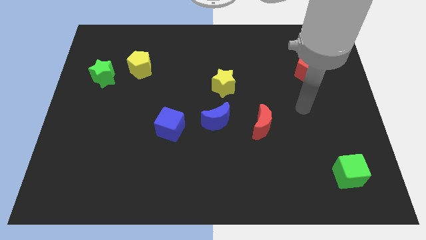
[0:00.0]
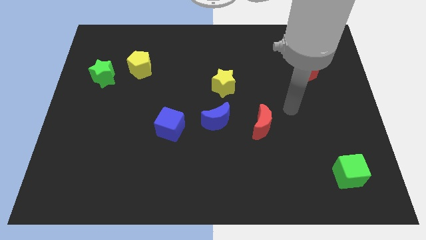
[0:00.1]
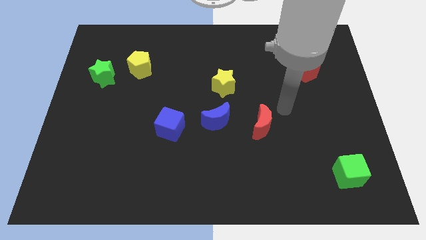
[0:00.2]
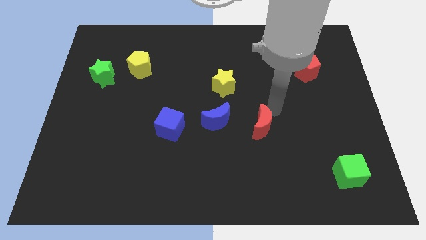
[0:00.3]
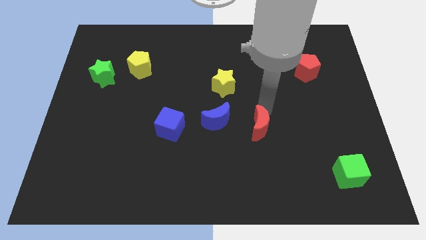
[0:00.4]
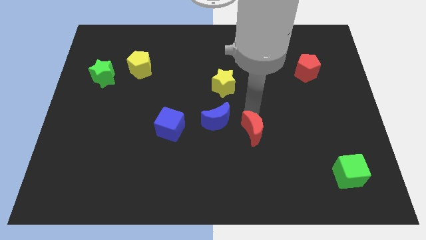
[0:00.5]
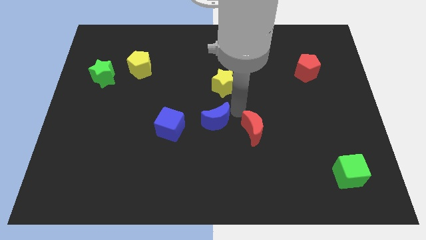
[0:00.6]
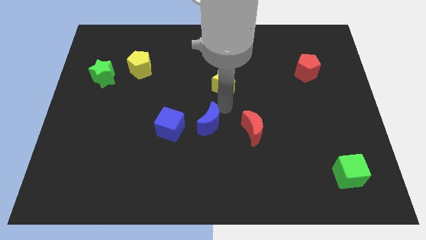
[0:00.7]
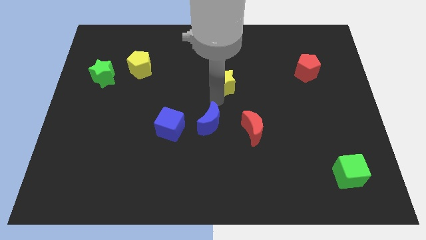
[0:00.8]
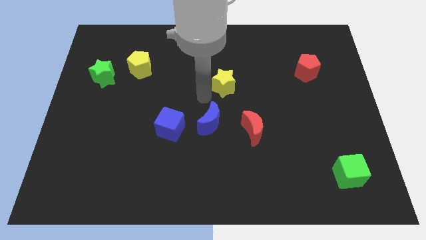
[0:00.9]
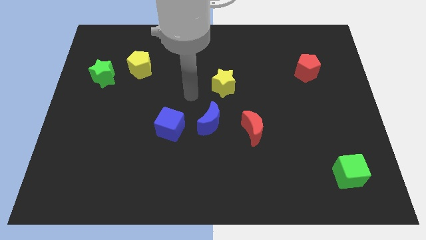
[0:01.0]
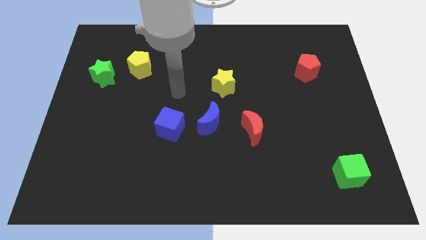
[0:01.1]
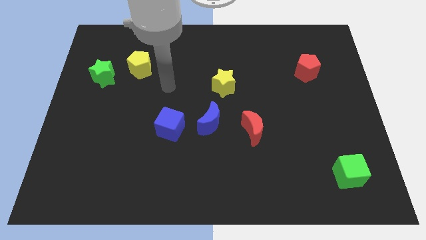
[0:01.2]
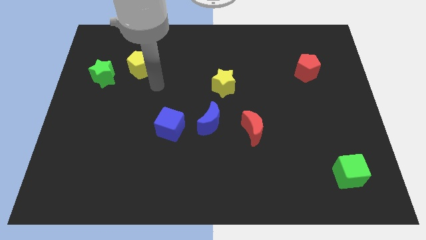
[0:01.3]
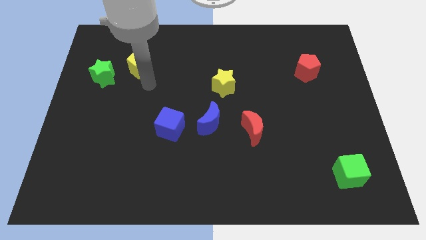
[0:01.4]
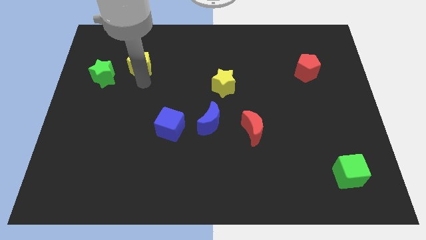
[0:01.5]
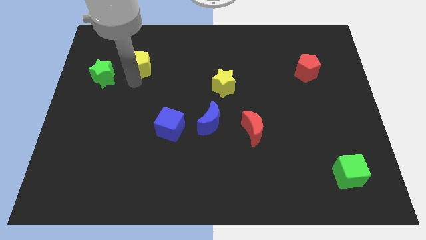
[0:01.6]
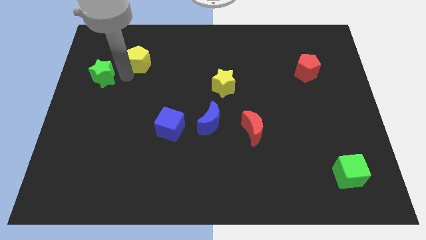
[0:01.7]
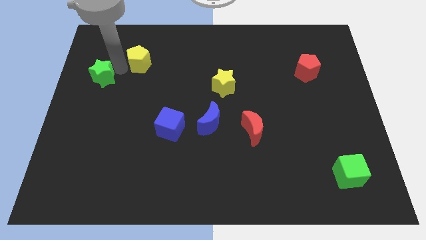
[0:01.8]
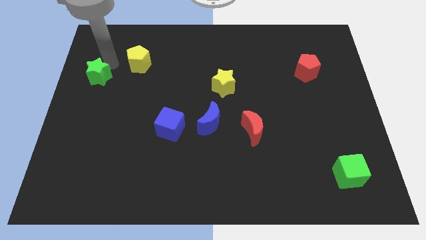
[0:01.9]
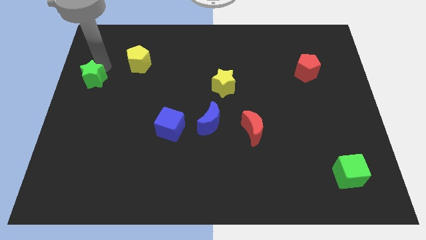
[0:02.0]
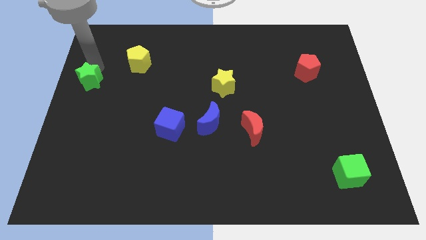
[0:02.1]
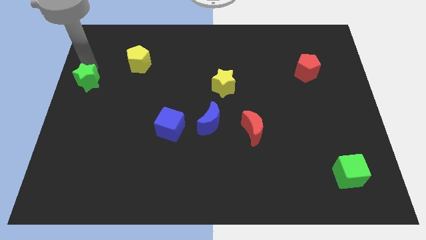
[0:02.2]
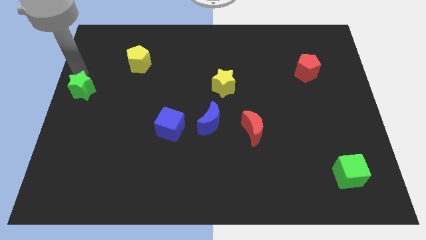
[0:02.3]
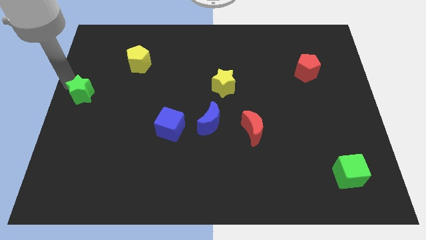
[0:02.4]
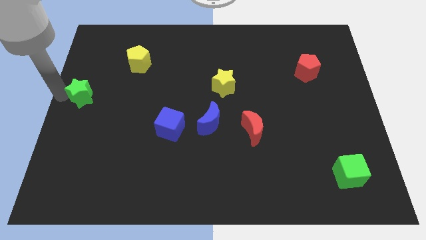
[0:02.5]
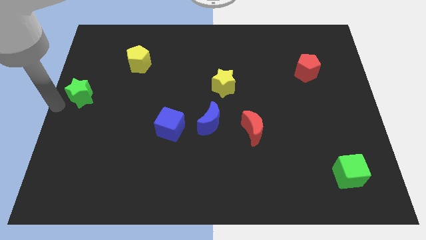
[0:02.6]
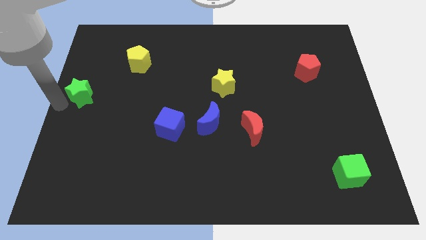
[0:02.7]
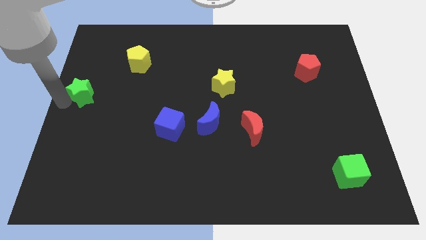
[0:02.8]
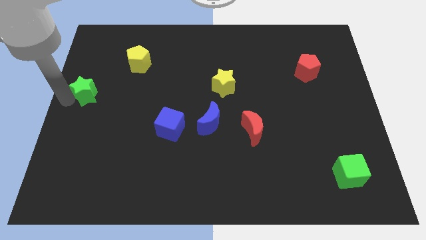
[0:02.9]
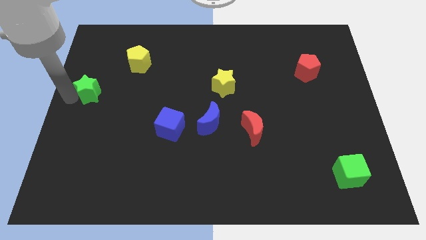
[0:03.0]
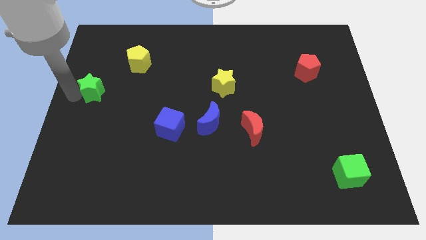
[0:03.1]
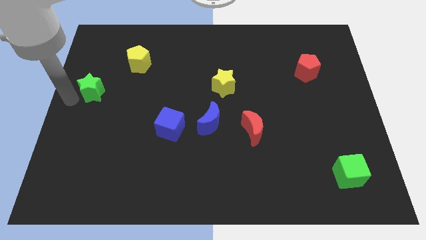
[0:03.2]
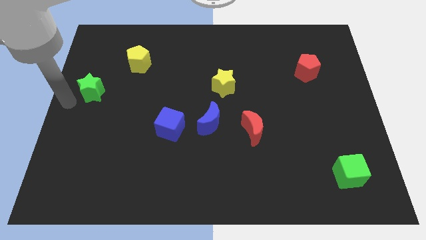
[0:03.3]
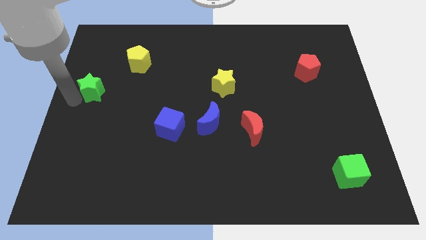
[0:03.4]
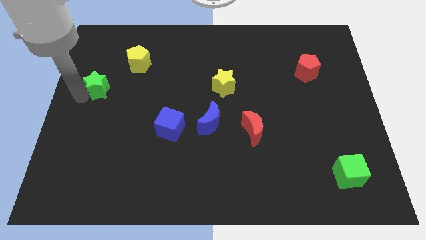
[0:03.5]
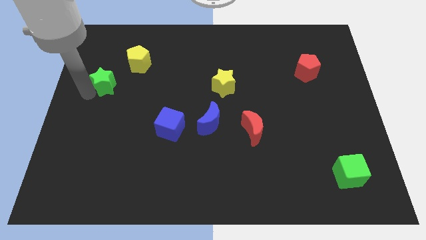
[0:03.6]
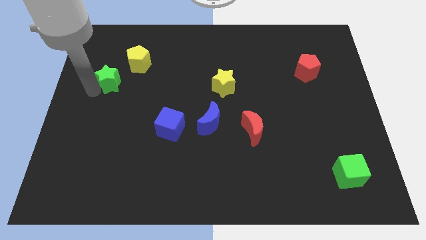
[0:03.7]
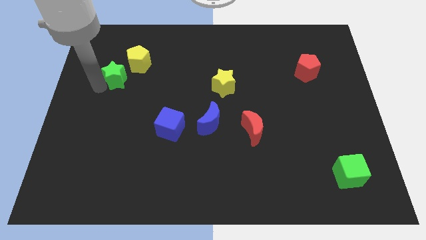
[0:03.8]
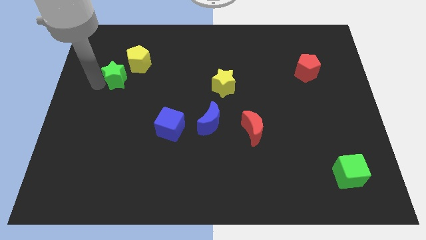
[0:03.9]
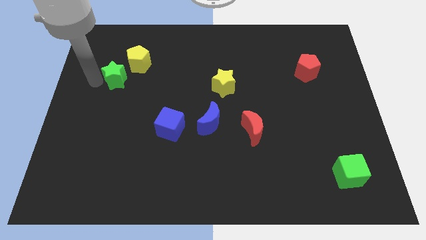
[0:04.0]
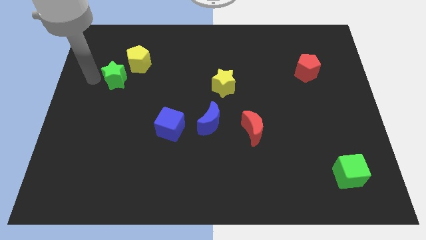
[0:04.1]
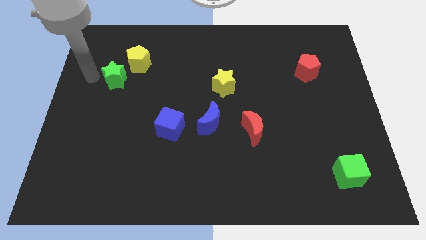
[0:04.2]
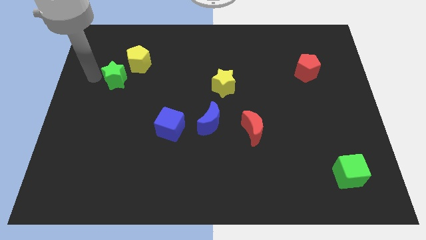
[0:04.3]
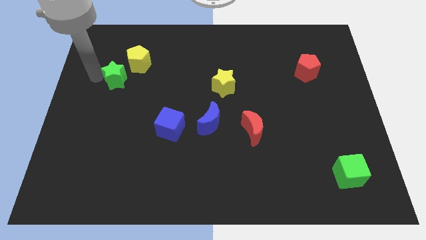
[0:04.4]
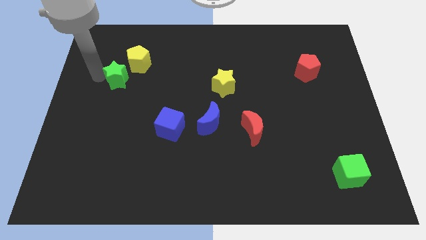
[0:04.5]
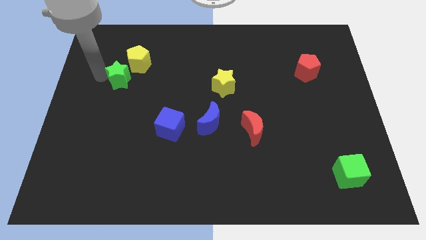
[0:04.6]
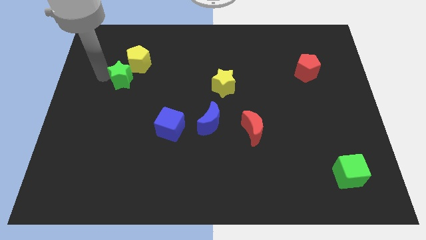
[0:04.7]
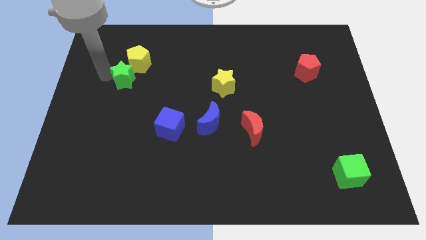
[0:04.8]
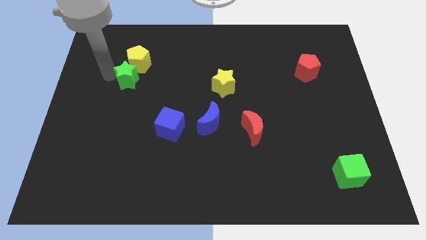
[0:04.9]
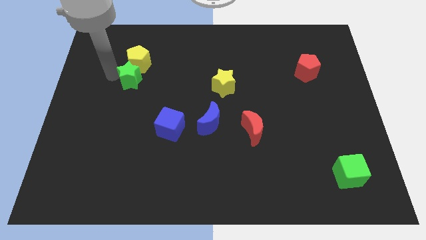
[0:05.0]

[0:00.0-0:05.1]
move the green star a little right

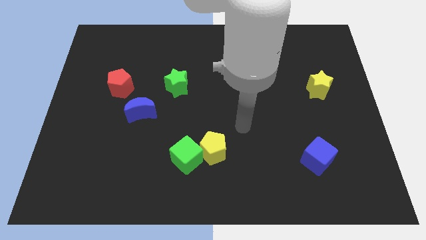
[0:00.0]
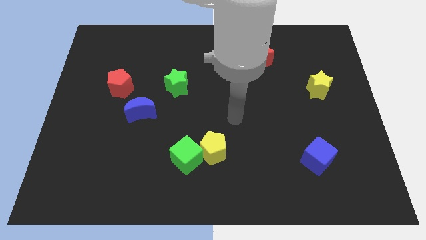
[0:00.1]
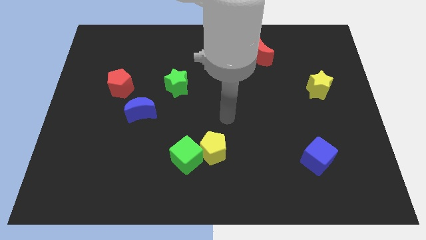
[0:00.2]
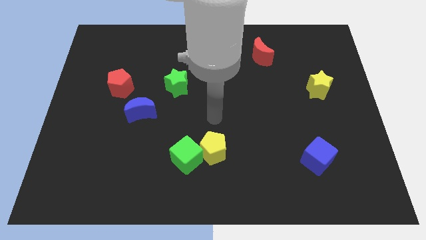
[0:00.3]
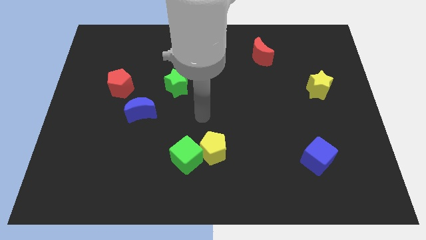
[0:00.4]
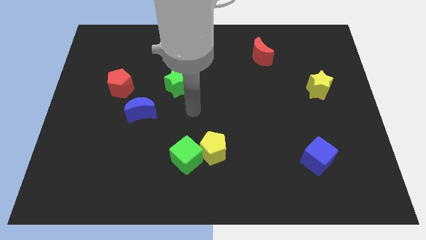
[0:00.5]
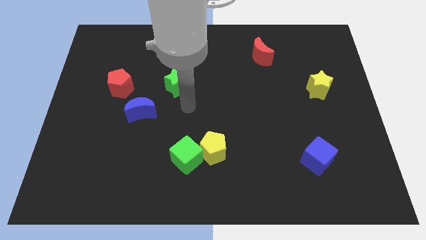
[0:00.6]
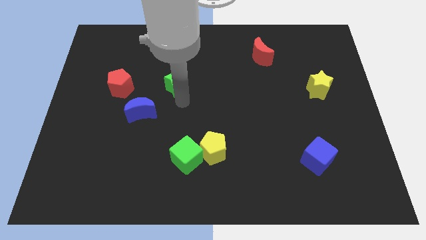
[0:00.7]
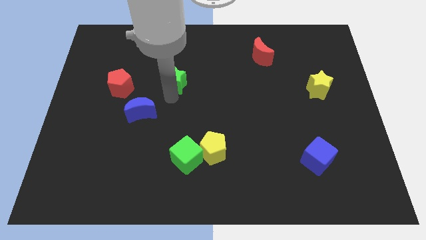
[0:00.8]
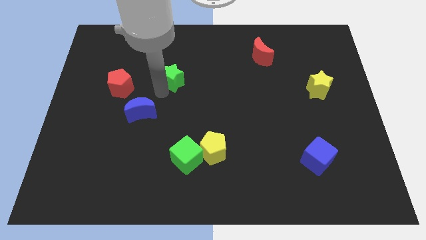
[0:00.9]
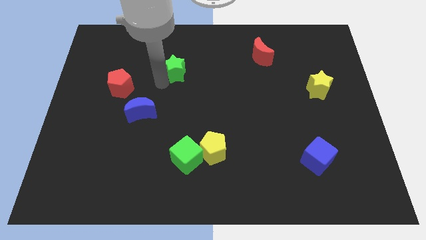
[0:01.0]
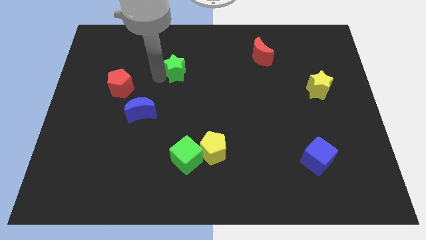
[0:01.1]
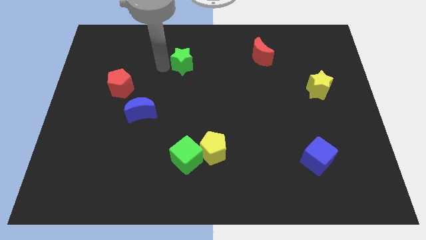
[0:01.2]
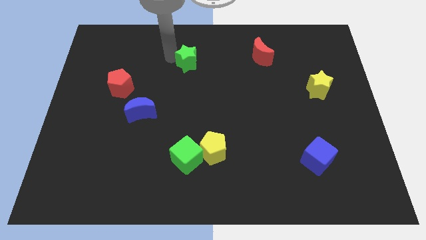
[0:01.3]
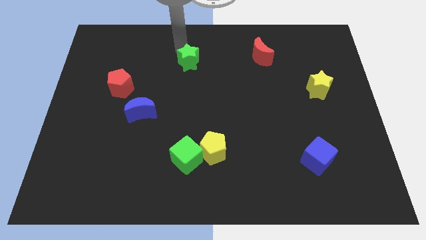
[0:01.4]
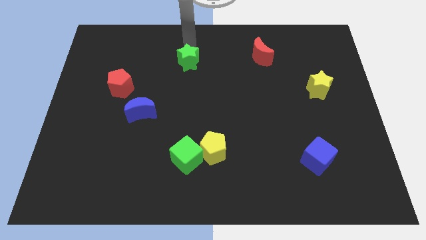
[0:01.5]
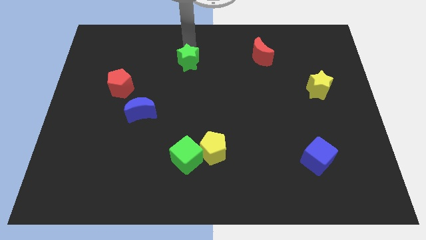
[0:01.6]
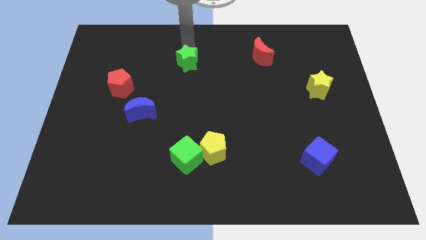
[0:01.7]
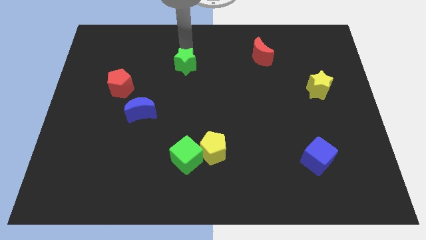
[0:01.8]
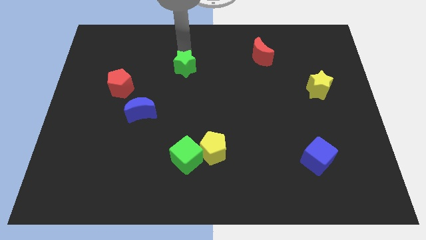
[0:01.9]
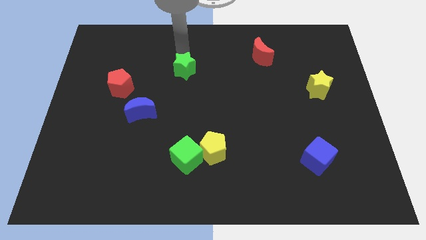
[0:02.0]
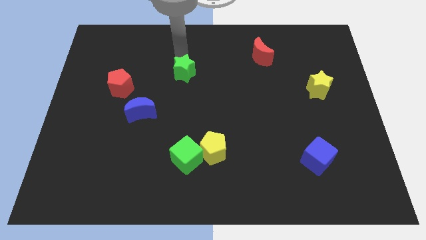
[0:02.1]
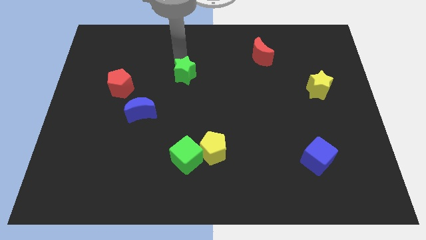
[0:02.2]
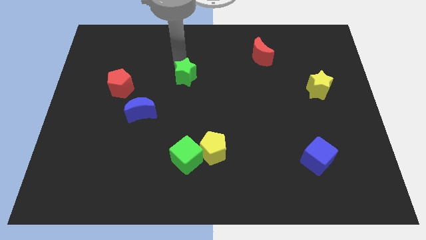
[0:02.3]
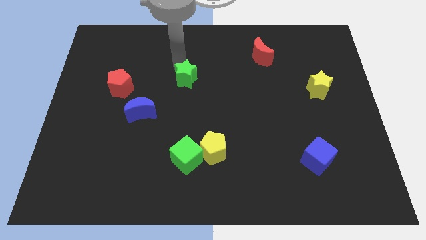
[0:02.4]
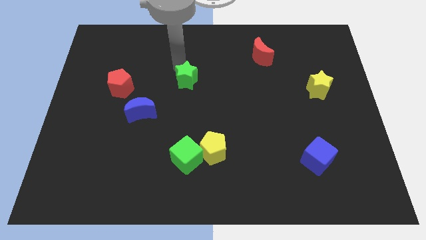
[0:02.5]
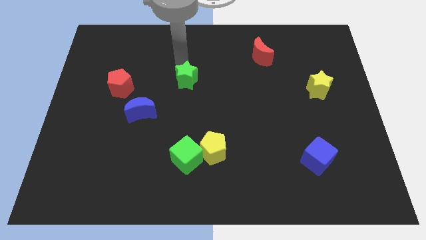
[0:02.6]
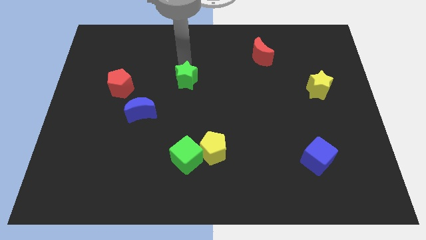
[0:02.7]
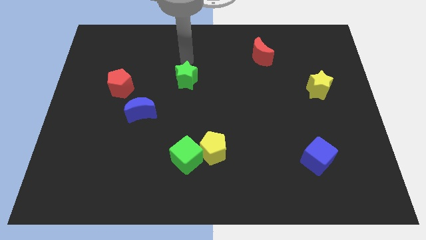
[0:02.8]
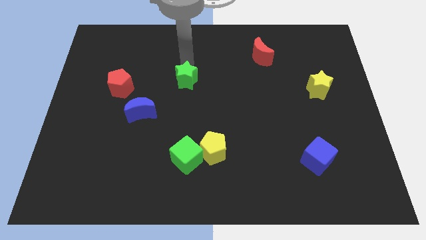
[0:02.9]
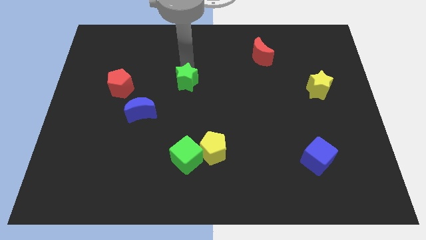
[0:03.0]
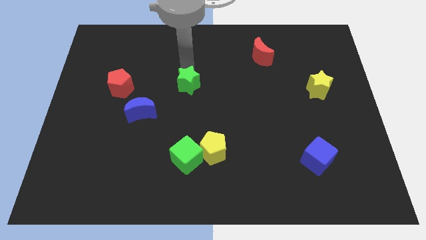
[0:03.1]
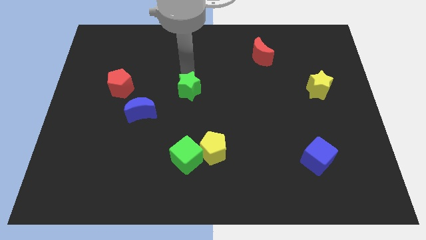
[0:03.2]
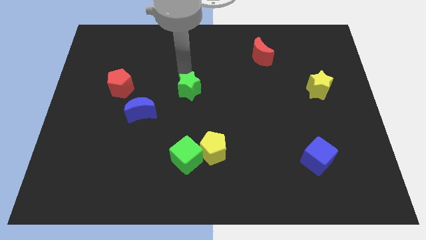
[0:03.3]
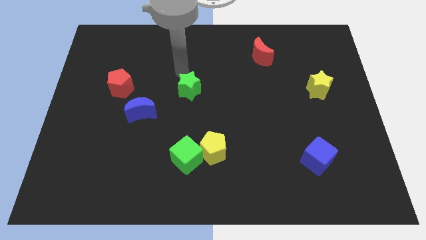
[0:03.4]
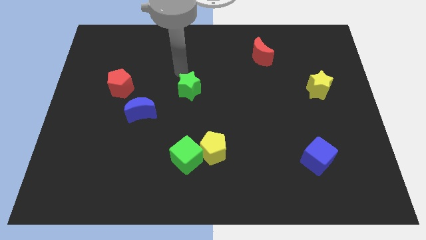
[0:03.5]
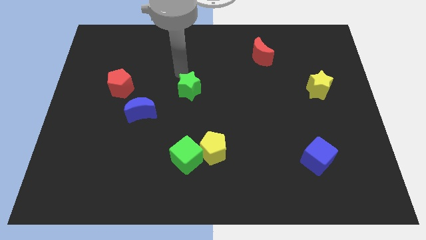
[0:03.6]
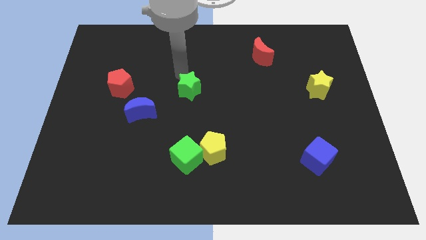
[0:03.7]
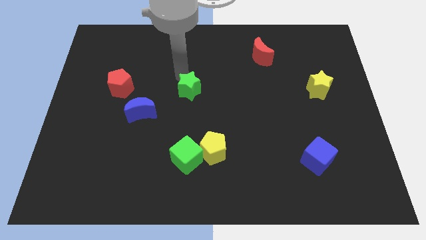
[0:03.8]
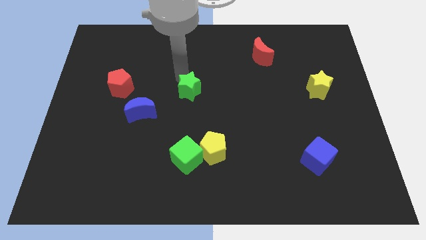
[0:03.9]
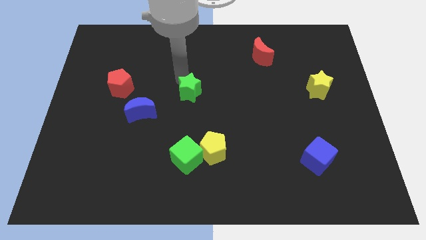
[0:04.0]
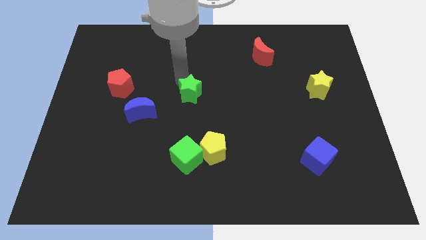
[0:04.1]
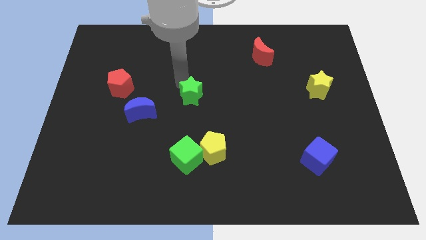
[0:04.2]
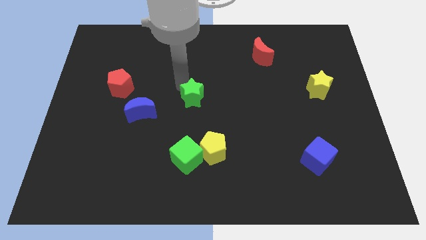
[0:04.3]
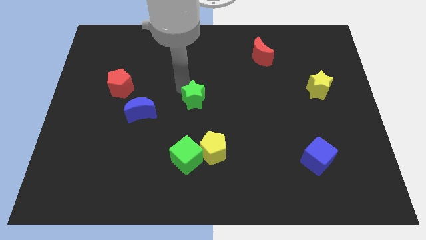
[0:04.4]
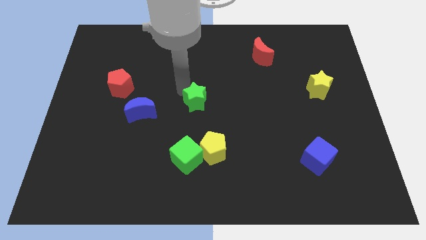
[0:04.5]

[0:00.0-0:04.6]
slightly push the green star down and right diagonally
